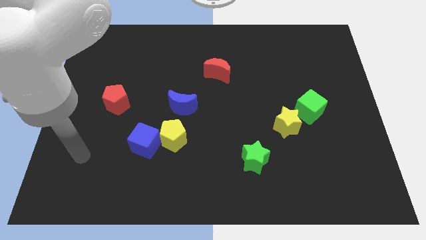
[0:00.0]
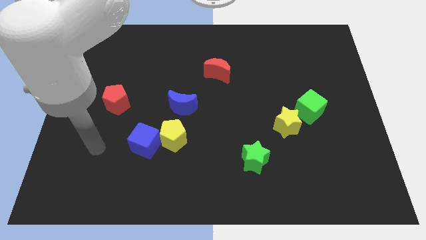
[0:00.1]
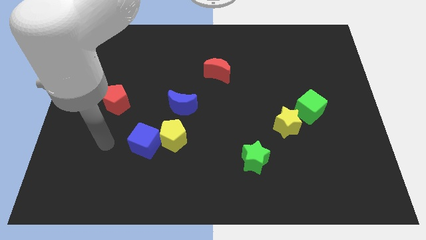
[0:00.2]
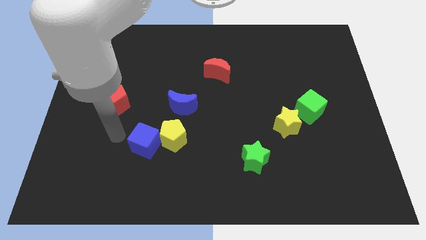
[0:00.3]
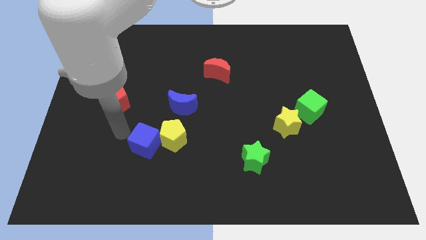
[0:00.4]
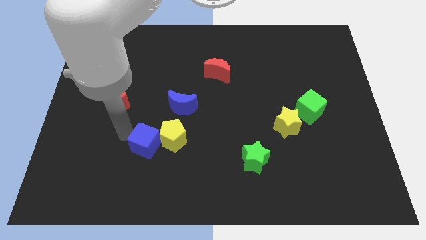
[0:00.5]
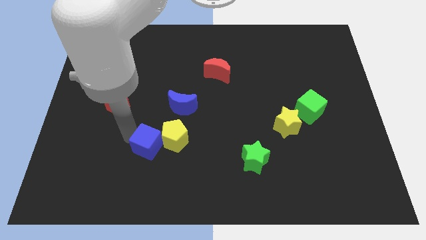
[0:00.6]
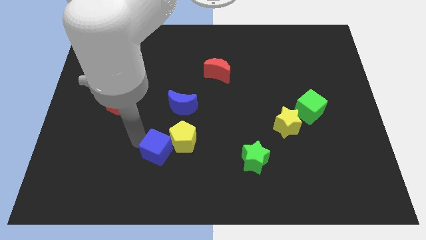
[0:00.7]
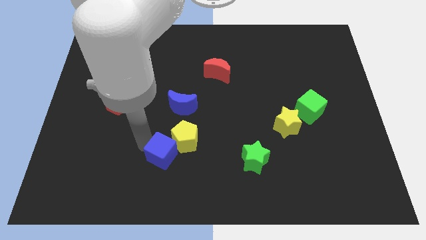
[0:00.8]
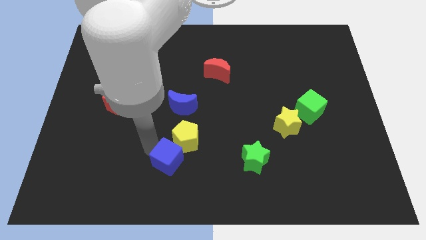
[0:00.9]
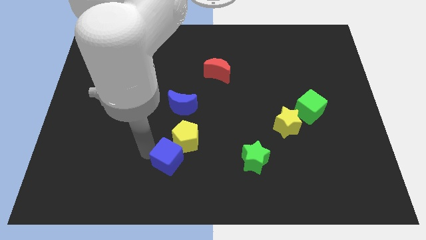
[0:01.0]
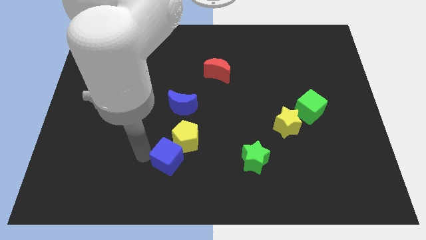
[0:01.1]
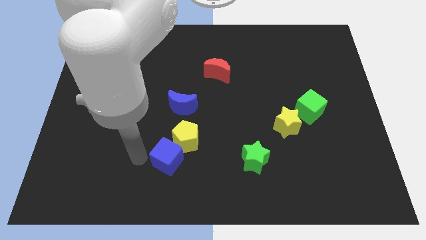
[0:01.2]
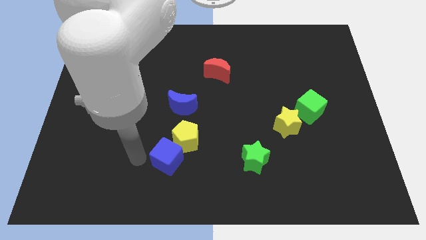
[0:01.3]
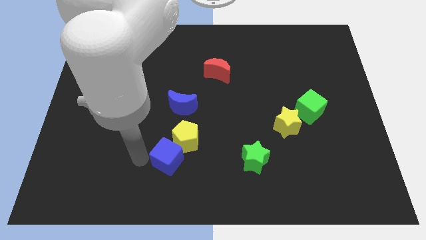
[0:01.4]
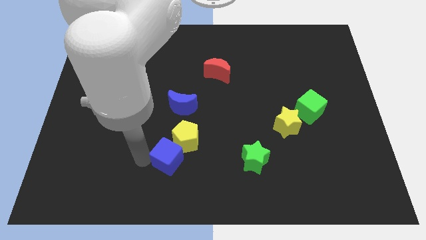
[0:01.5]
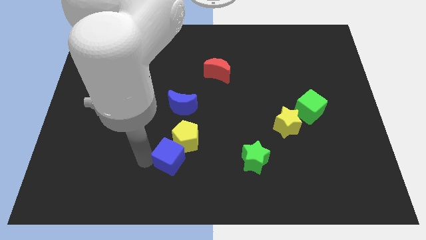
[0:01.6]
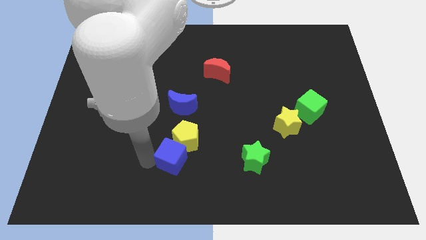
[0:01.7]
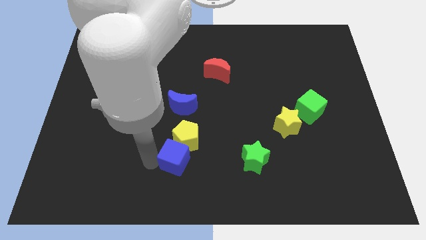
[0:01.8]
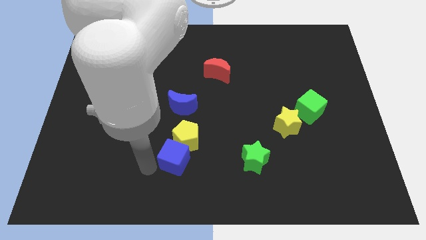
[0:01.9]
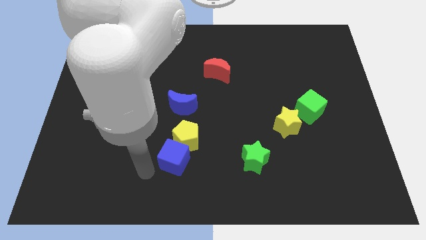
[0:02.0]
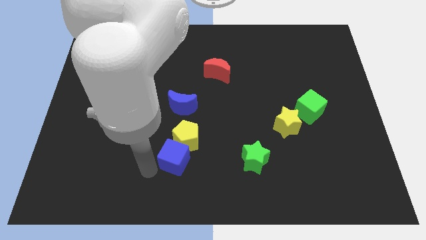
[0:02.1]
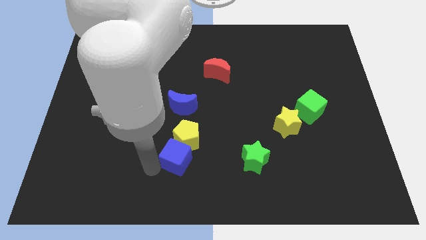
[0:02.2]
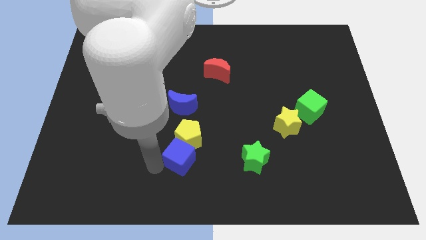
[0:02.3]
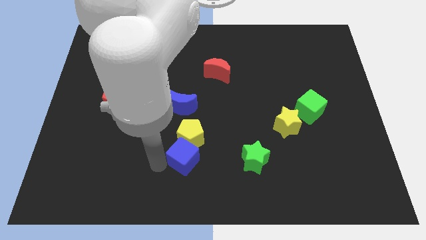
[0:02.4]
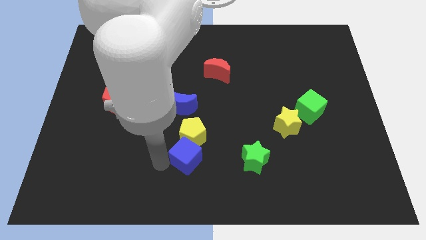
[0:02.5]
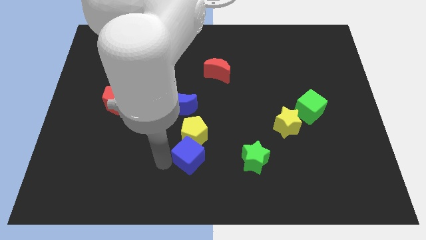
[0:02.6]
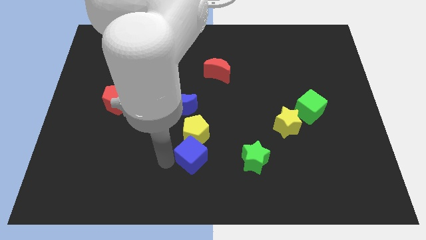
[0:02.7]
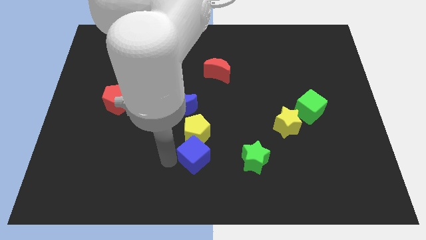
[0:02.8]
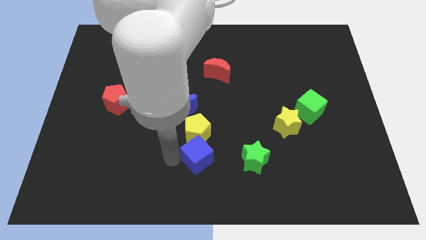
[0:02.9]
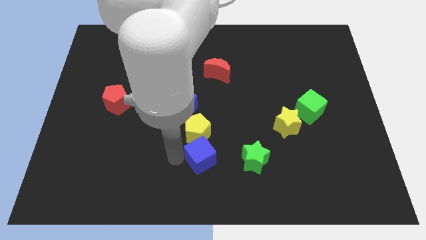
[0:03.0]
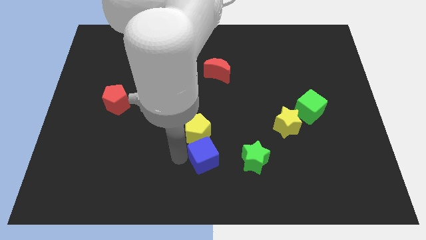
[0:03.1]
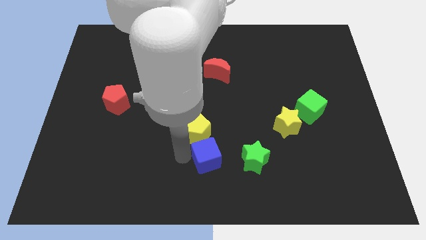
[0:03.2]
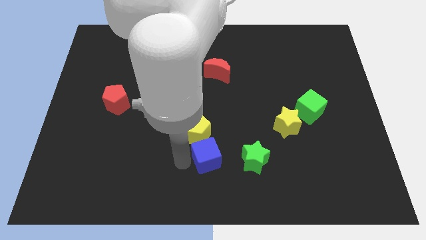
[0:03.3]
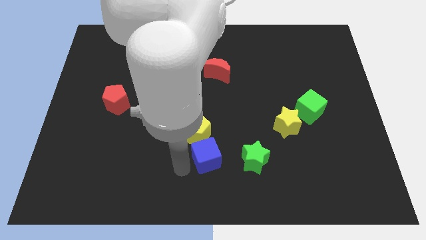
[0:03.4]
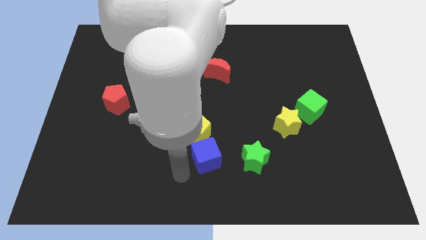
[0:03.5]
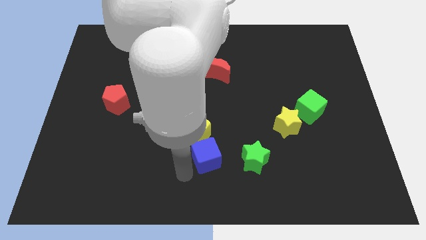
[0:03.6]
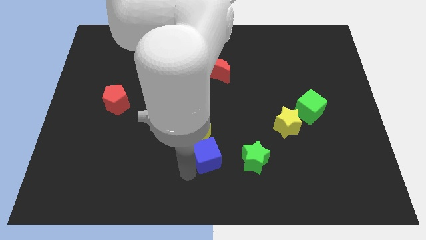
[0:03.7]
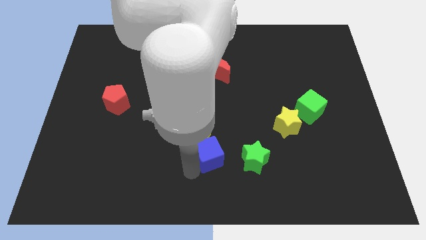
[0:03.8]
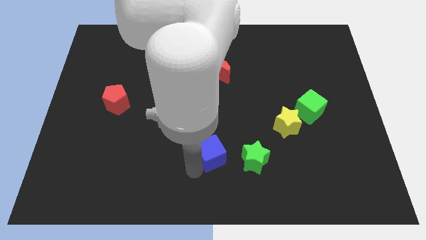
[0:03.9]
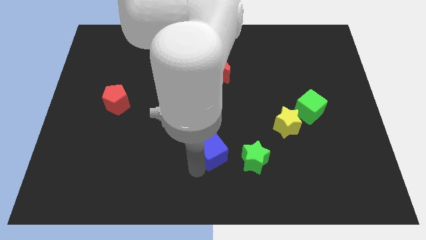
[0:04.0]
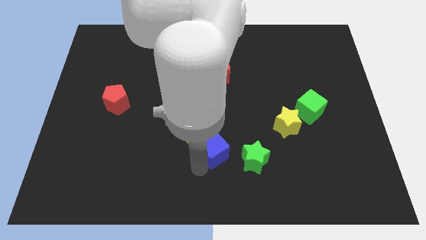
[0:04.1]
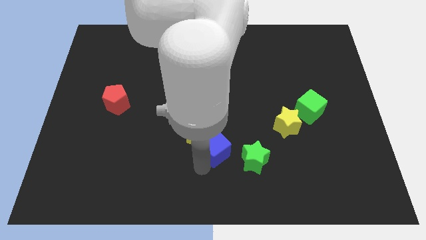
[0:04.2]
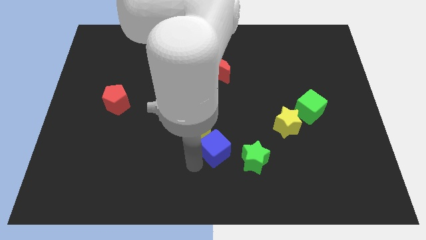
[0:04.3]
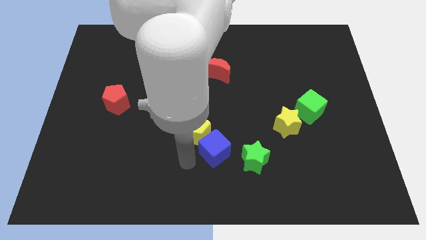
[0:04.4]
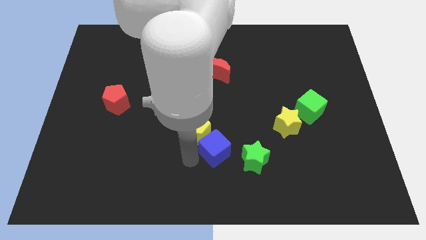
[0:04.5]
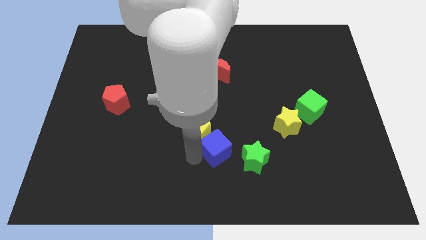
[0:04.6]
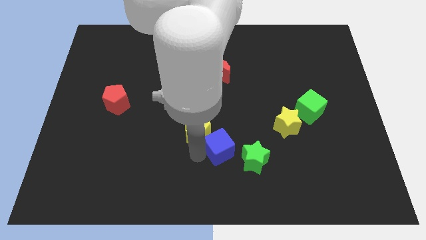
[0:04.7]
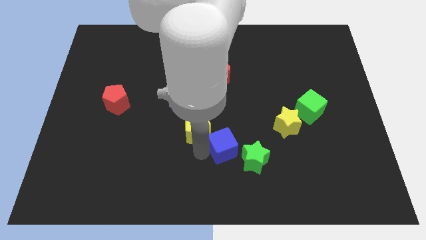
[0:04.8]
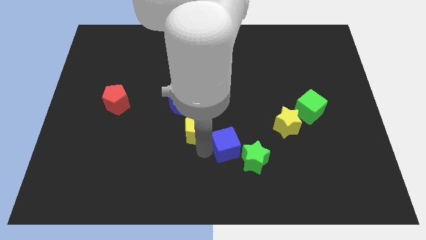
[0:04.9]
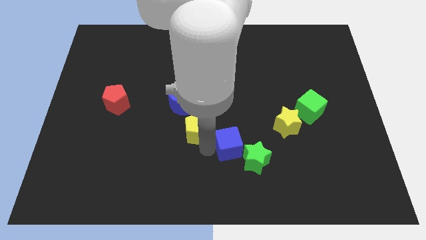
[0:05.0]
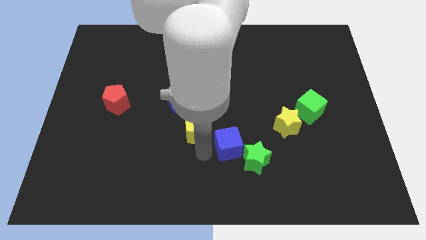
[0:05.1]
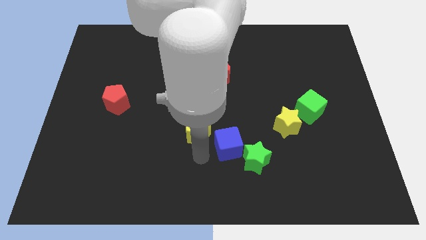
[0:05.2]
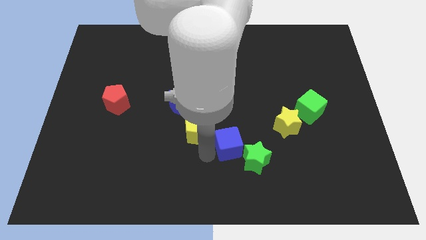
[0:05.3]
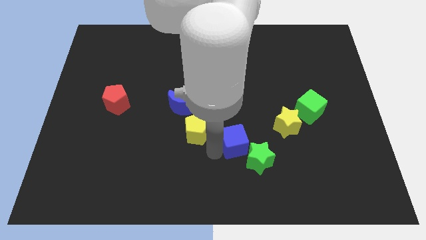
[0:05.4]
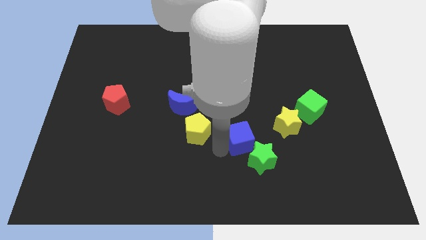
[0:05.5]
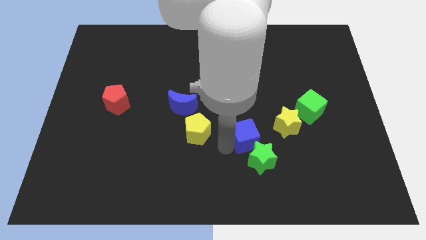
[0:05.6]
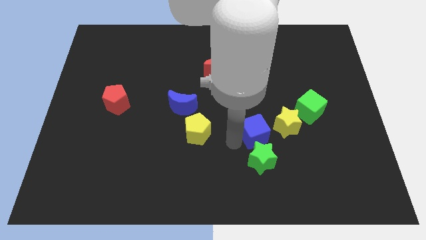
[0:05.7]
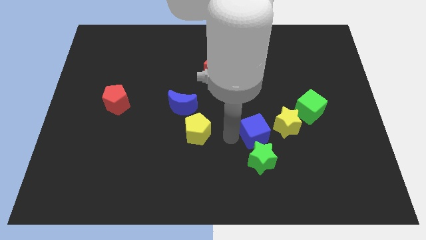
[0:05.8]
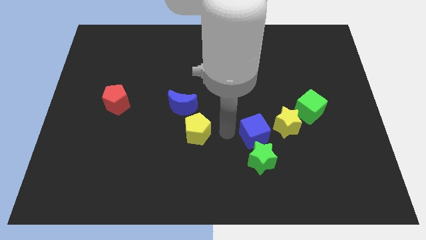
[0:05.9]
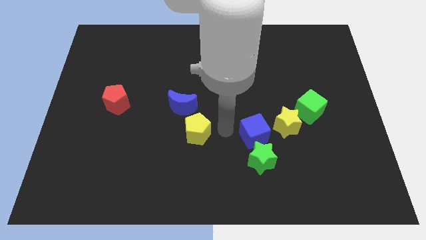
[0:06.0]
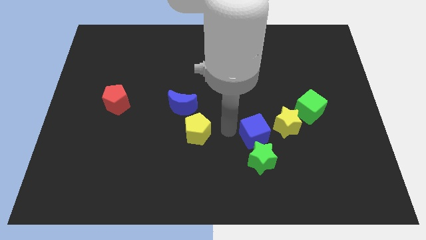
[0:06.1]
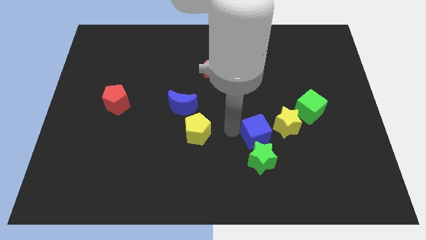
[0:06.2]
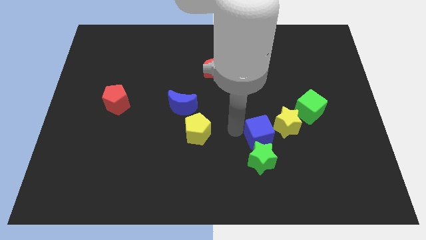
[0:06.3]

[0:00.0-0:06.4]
push the blue cube to the top right side of the green star

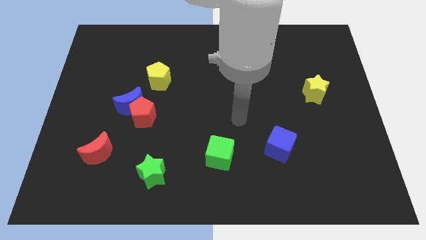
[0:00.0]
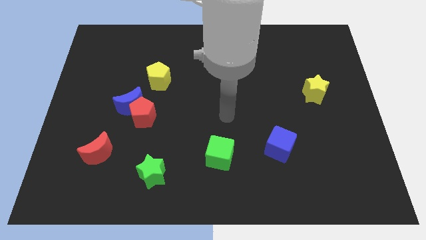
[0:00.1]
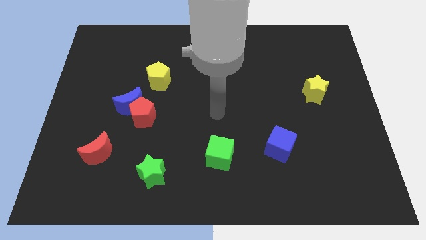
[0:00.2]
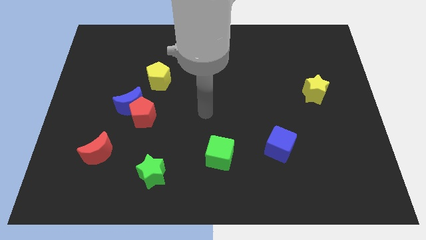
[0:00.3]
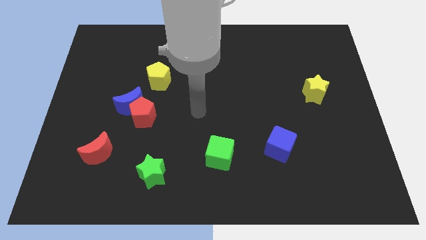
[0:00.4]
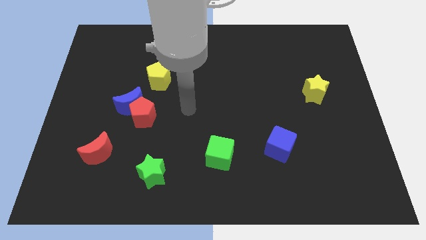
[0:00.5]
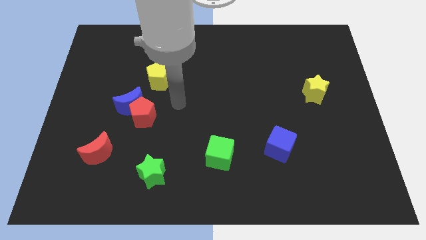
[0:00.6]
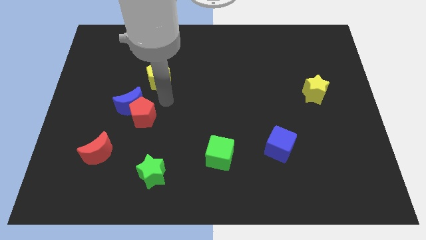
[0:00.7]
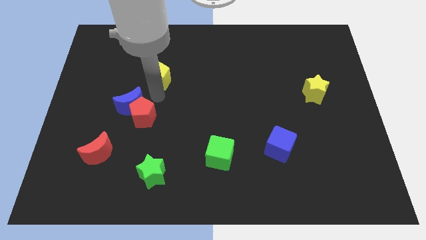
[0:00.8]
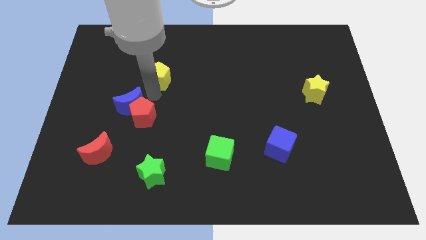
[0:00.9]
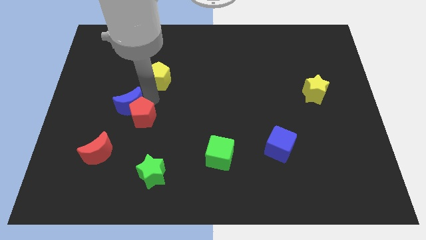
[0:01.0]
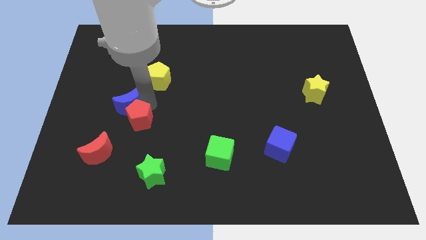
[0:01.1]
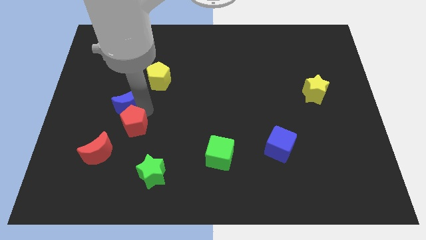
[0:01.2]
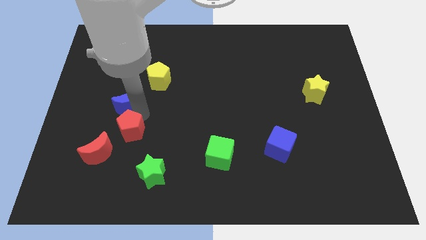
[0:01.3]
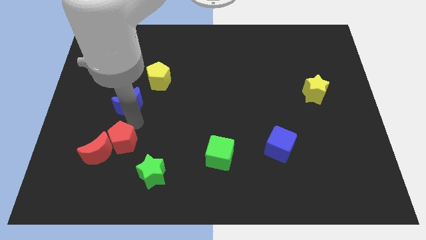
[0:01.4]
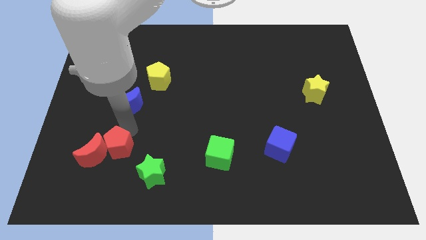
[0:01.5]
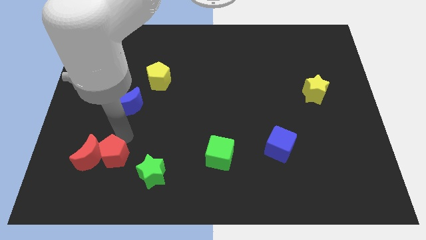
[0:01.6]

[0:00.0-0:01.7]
push the red pentagon diagonally down and to the right of the red moon
